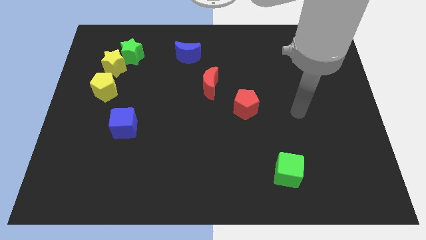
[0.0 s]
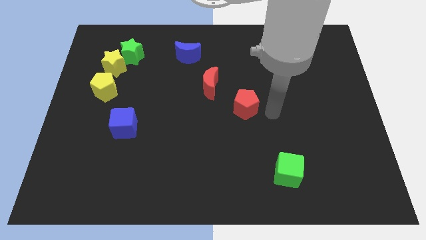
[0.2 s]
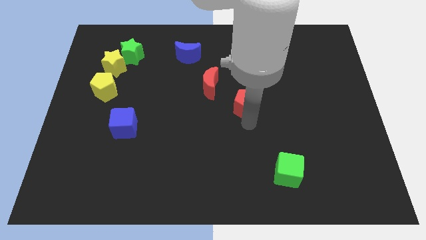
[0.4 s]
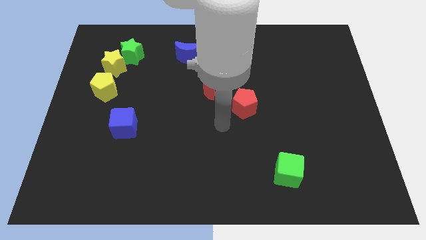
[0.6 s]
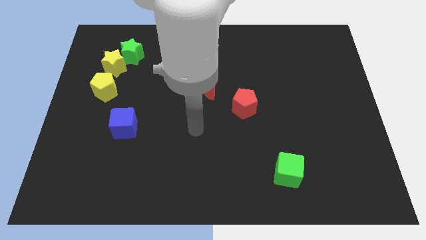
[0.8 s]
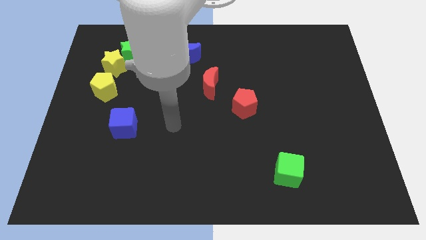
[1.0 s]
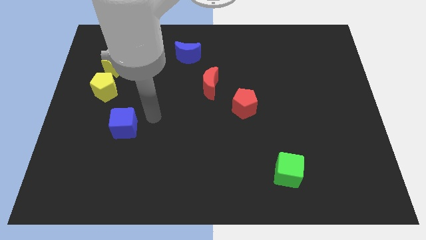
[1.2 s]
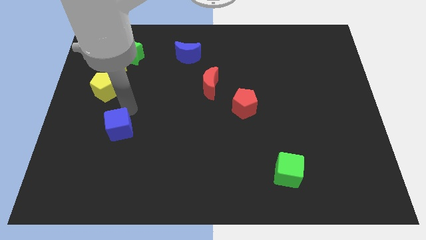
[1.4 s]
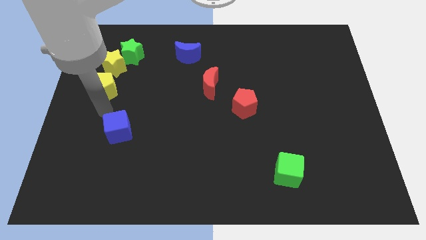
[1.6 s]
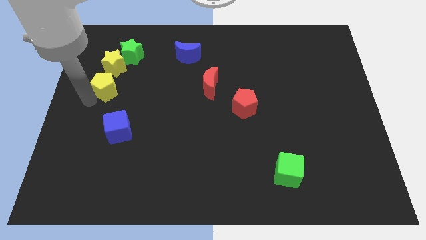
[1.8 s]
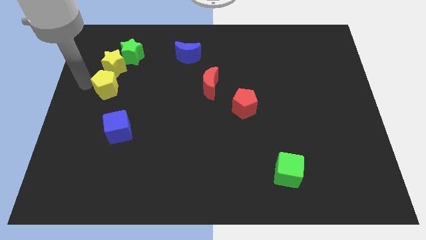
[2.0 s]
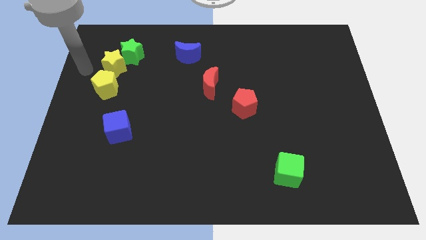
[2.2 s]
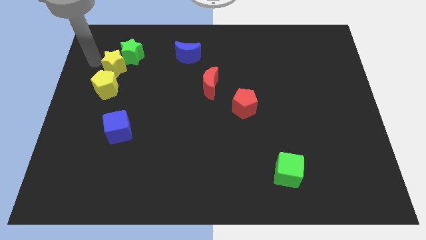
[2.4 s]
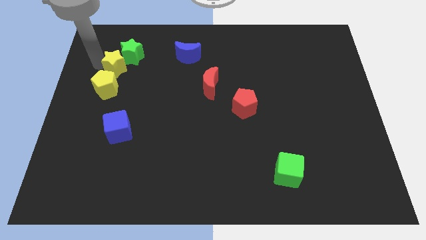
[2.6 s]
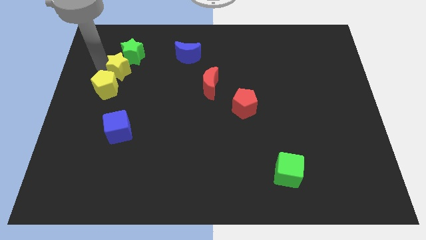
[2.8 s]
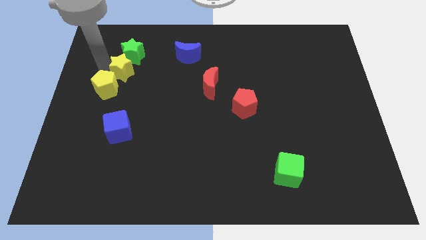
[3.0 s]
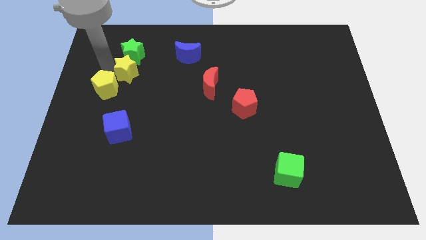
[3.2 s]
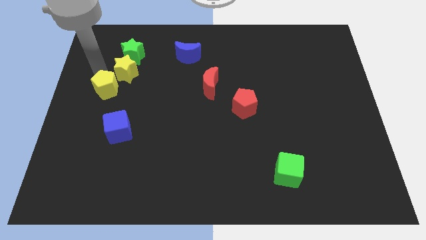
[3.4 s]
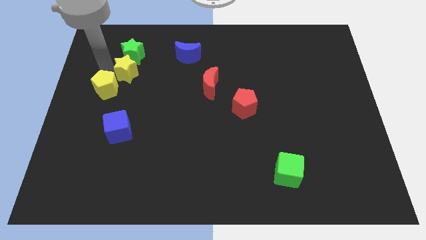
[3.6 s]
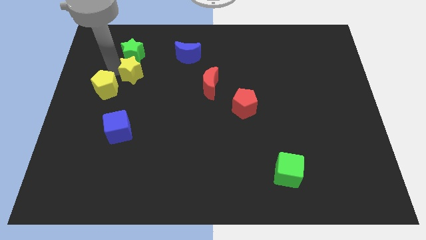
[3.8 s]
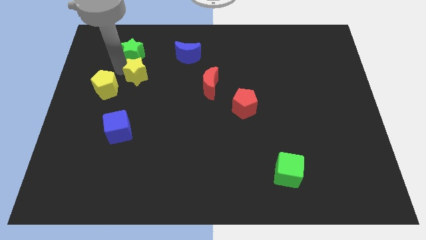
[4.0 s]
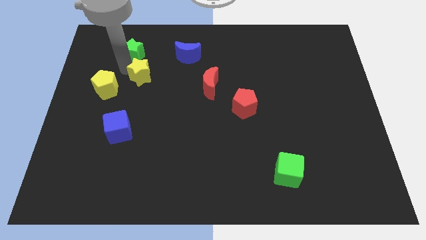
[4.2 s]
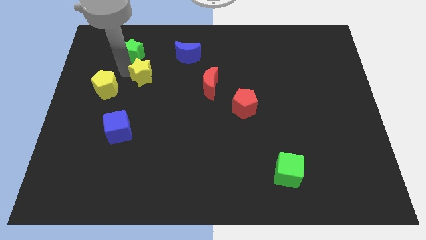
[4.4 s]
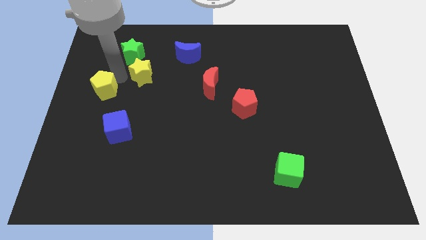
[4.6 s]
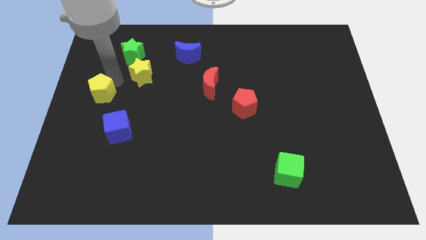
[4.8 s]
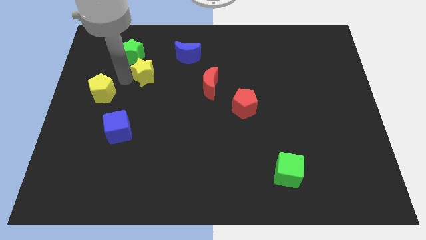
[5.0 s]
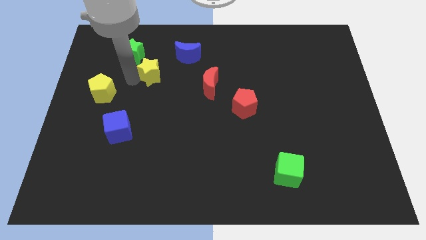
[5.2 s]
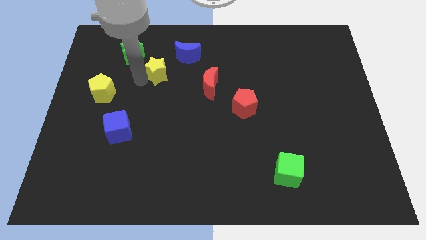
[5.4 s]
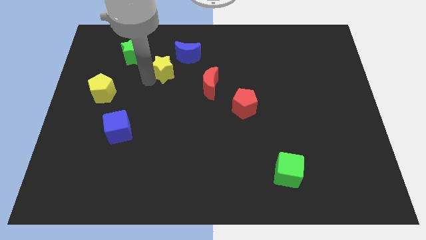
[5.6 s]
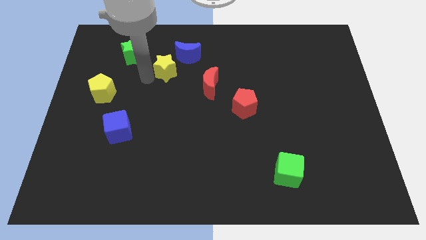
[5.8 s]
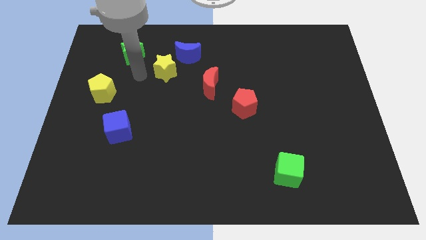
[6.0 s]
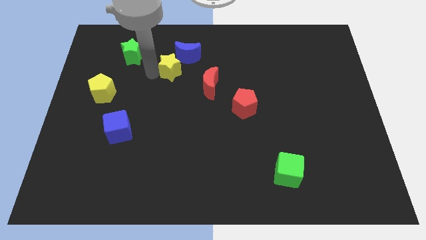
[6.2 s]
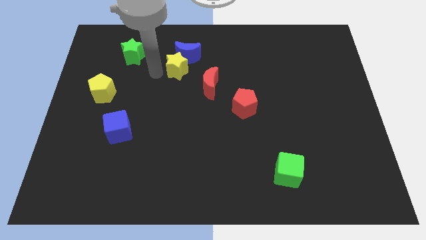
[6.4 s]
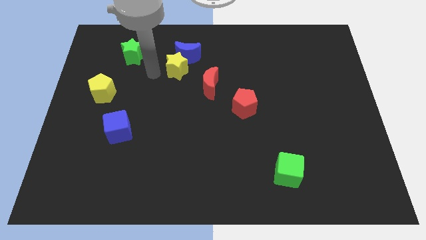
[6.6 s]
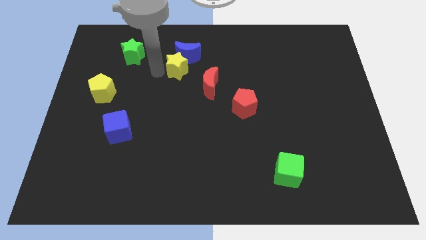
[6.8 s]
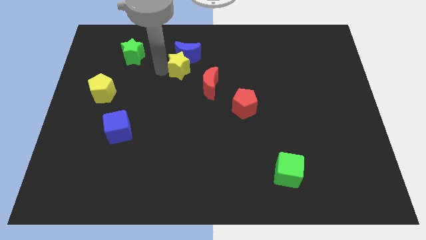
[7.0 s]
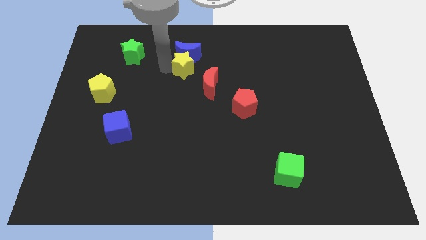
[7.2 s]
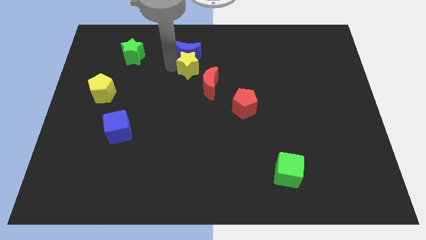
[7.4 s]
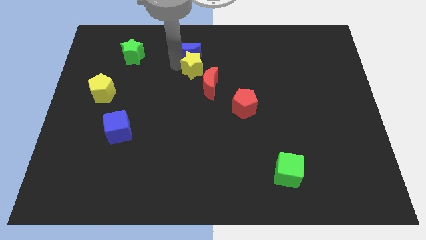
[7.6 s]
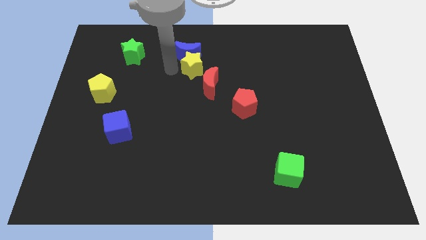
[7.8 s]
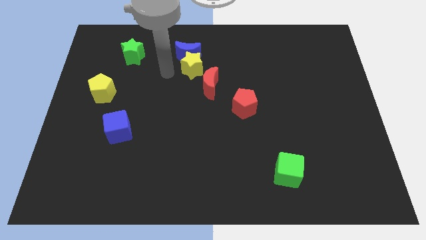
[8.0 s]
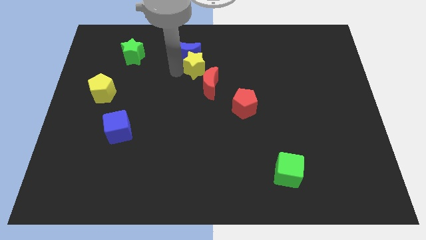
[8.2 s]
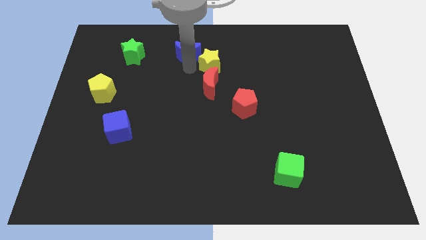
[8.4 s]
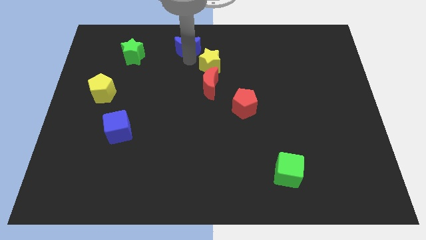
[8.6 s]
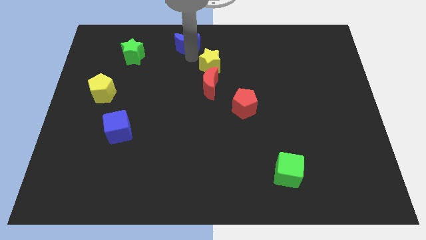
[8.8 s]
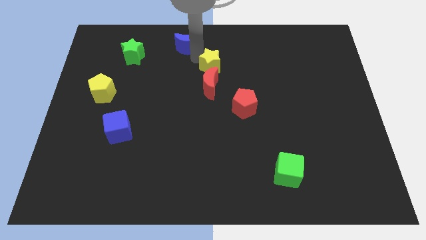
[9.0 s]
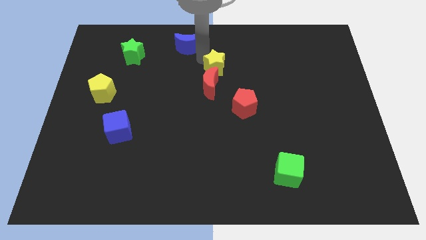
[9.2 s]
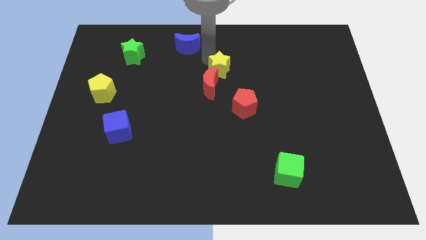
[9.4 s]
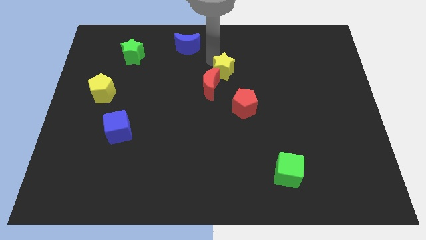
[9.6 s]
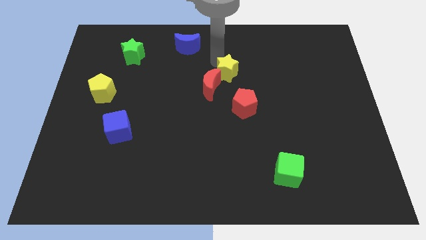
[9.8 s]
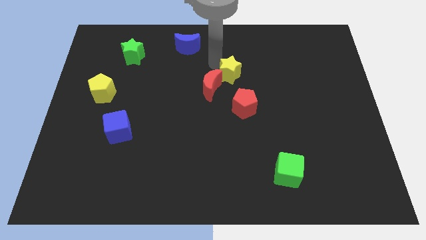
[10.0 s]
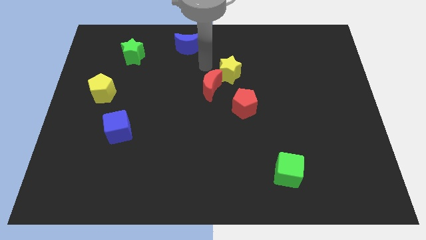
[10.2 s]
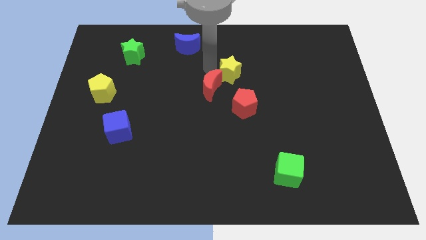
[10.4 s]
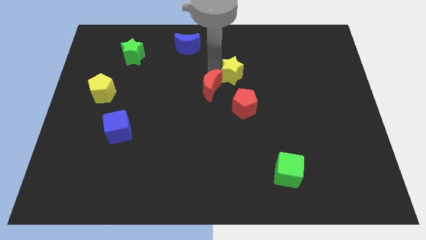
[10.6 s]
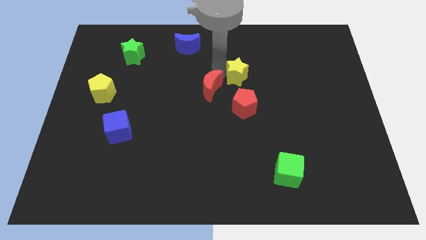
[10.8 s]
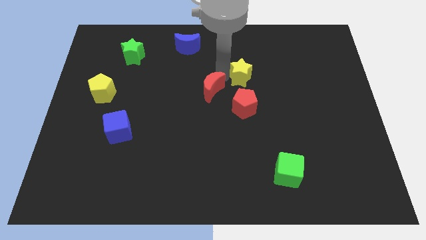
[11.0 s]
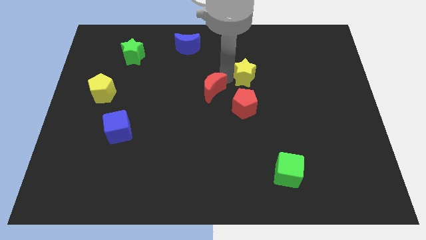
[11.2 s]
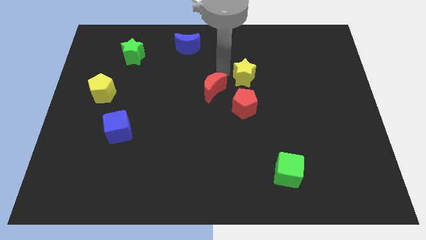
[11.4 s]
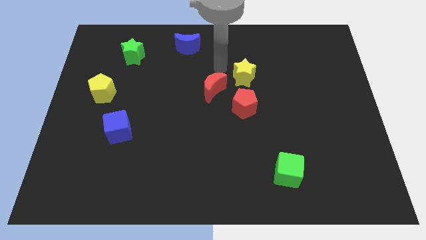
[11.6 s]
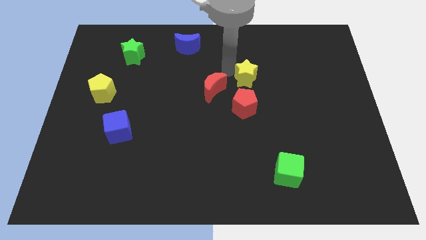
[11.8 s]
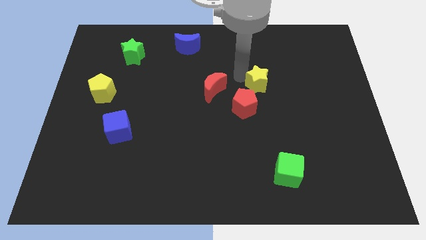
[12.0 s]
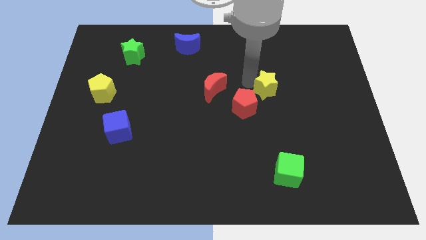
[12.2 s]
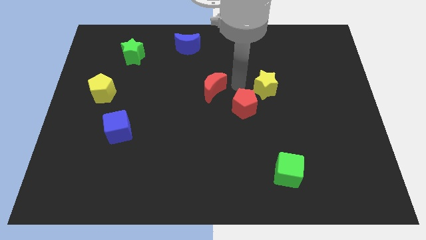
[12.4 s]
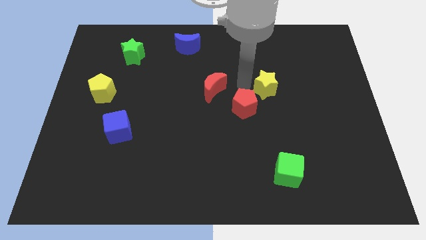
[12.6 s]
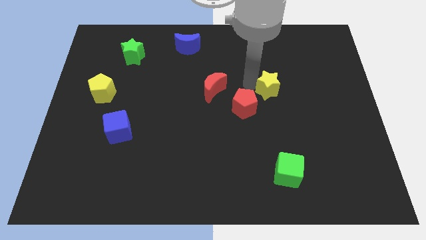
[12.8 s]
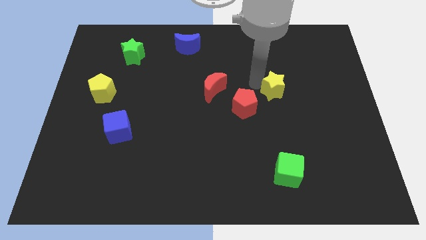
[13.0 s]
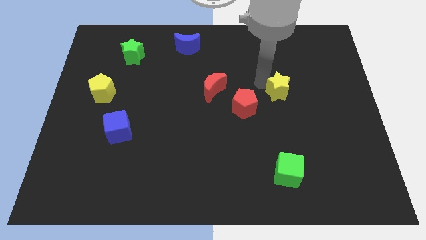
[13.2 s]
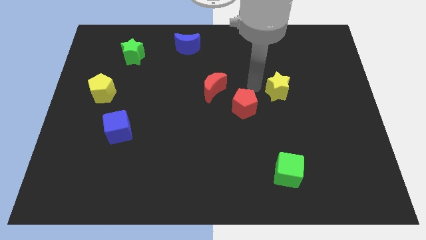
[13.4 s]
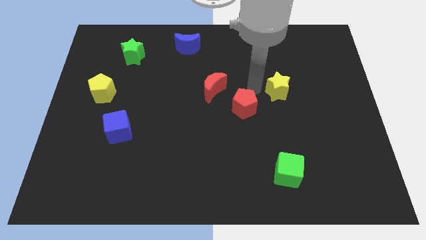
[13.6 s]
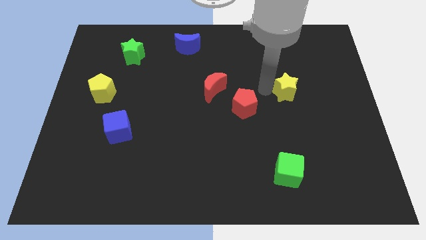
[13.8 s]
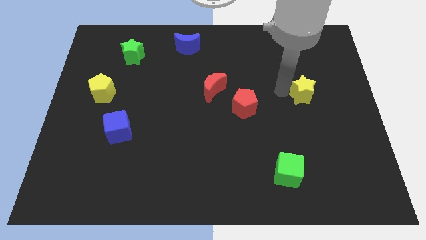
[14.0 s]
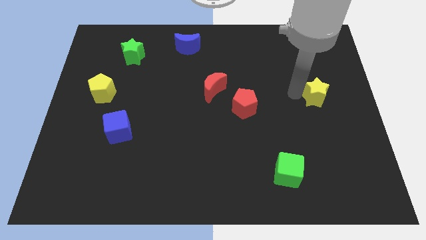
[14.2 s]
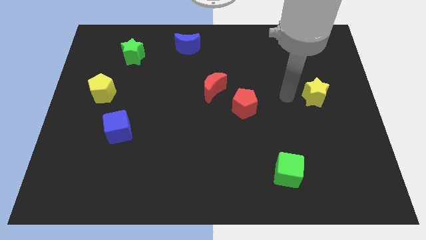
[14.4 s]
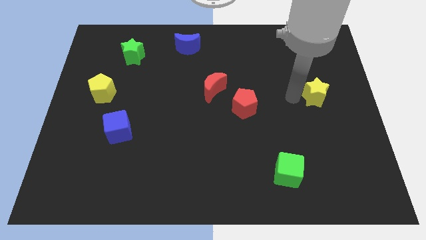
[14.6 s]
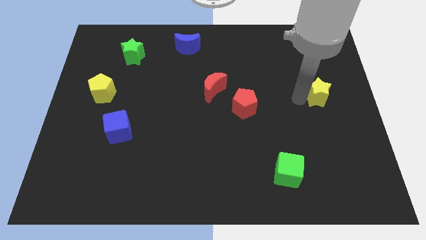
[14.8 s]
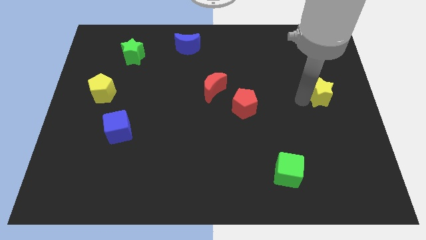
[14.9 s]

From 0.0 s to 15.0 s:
move the yellow star to the right side of the board
